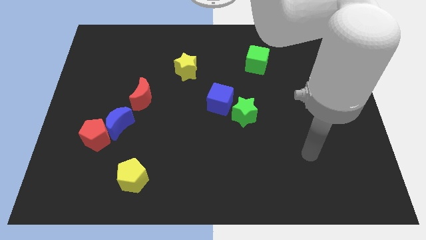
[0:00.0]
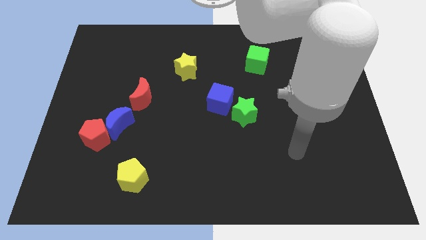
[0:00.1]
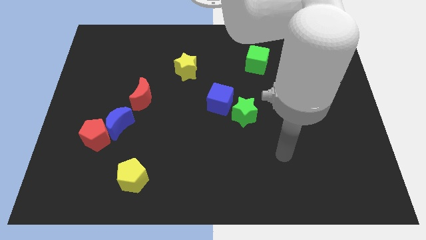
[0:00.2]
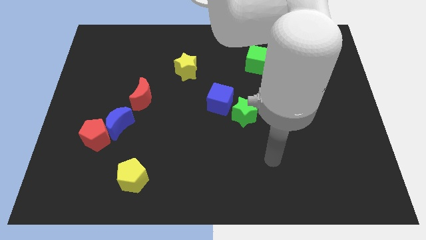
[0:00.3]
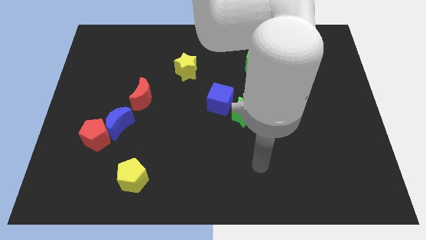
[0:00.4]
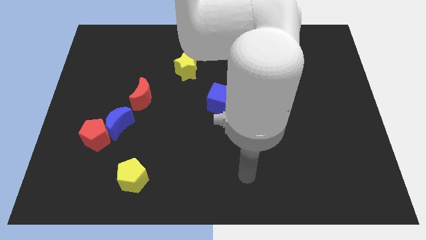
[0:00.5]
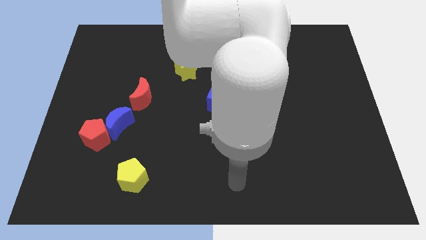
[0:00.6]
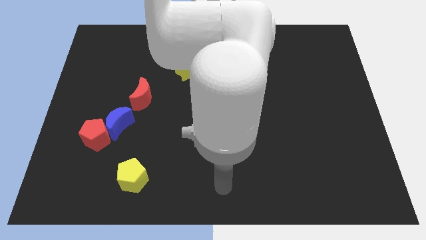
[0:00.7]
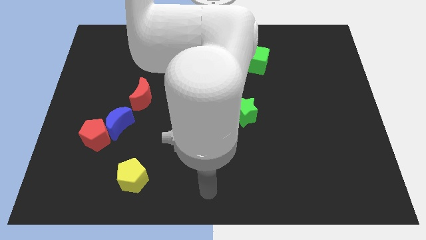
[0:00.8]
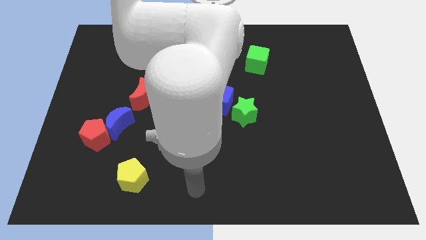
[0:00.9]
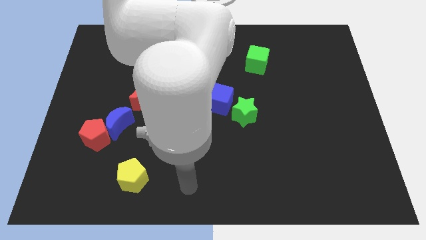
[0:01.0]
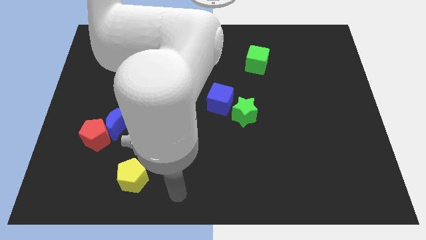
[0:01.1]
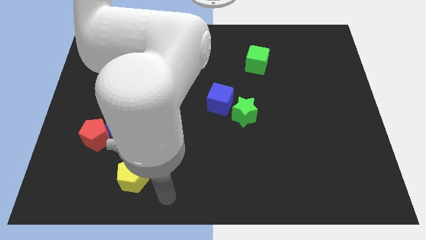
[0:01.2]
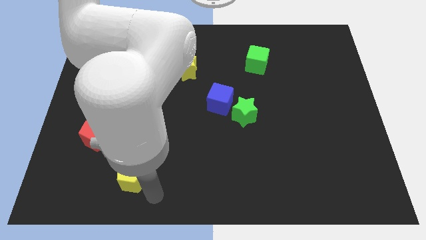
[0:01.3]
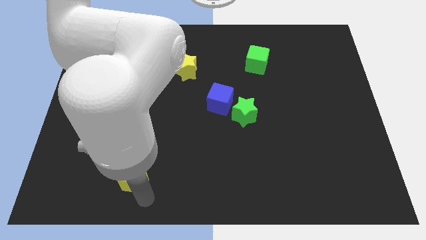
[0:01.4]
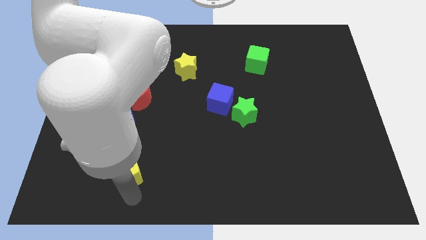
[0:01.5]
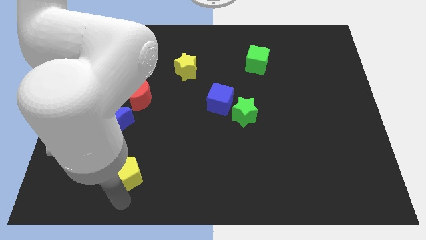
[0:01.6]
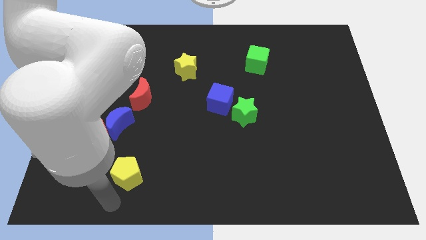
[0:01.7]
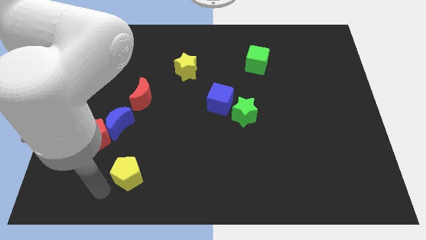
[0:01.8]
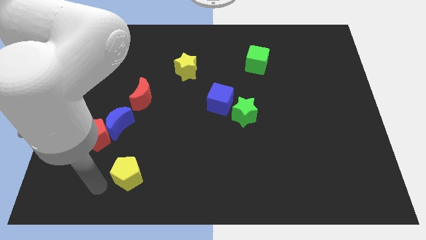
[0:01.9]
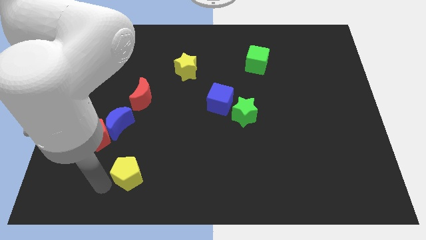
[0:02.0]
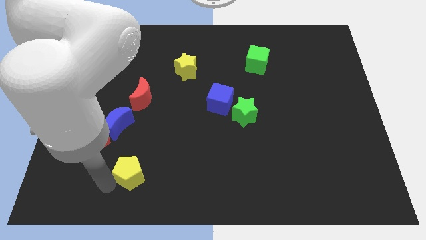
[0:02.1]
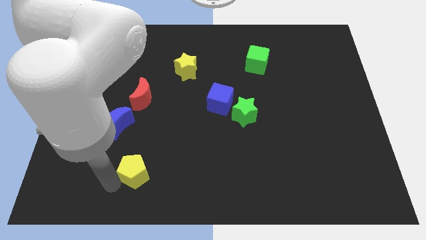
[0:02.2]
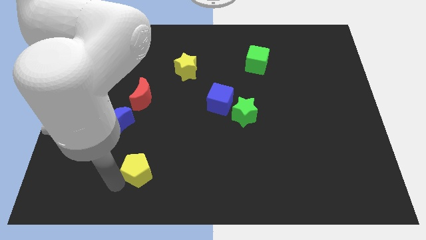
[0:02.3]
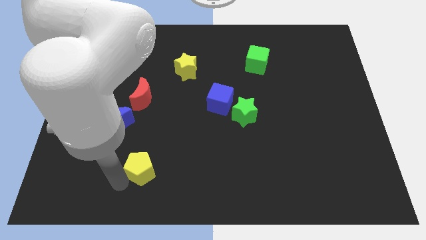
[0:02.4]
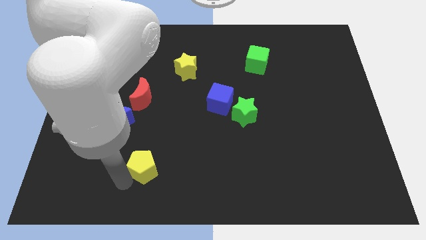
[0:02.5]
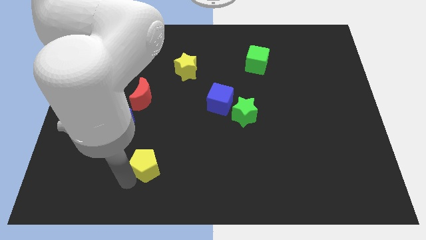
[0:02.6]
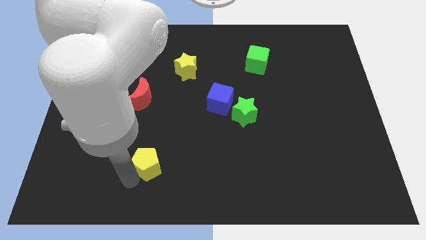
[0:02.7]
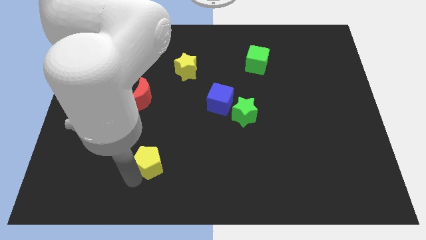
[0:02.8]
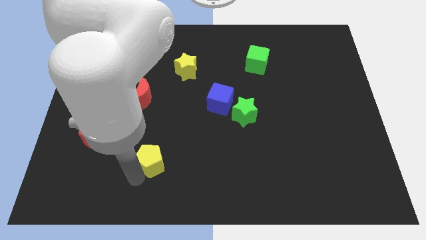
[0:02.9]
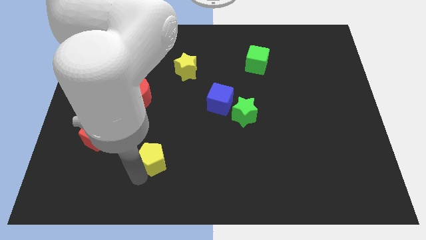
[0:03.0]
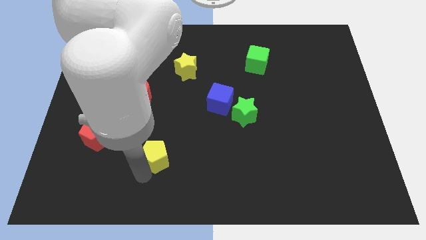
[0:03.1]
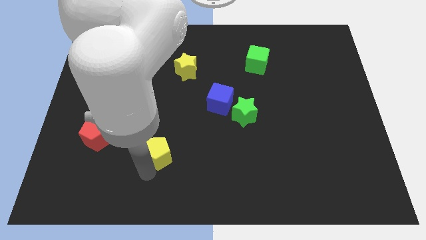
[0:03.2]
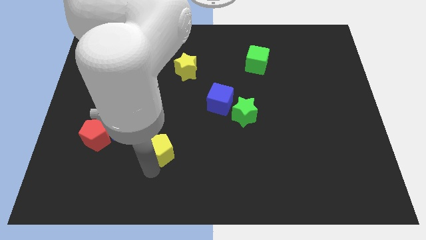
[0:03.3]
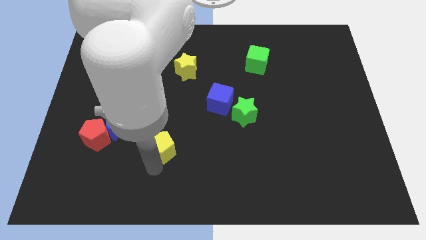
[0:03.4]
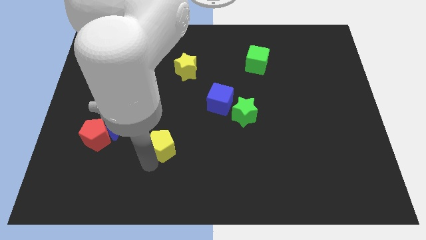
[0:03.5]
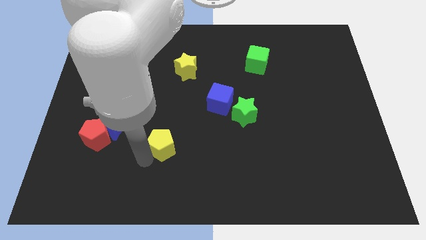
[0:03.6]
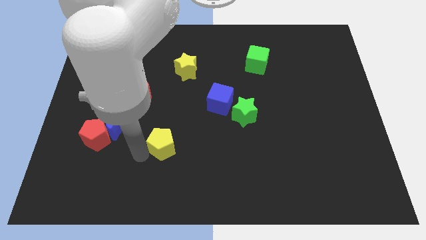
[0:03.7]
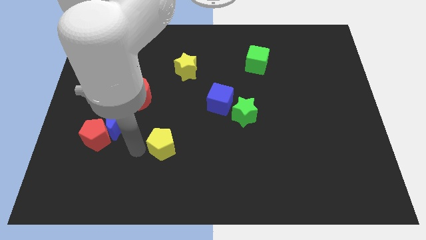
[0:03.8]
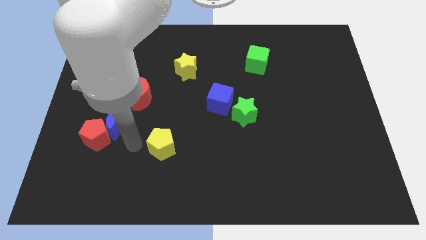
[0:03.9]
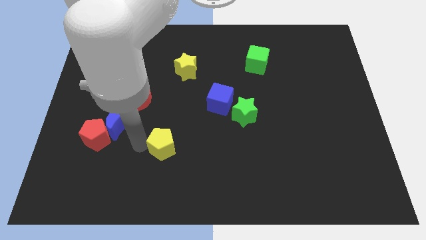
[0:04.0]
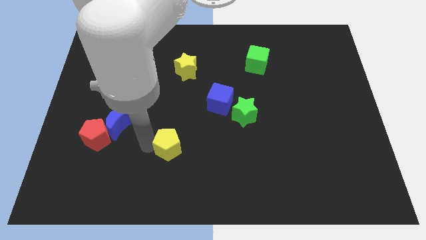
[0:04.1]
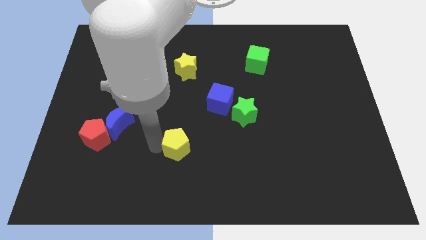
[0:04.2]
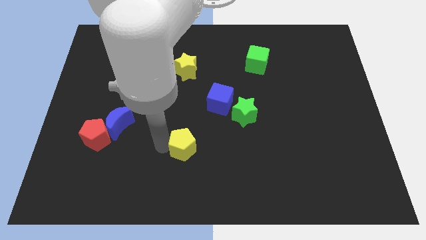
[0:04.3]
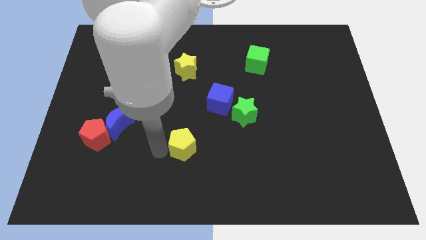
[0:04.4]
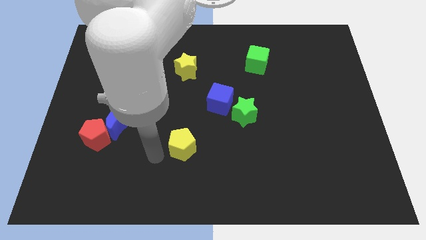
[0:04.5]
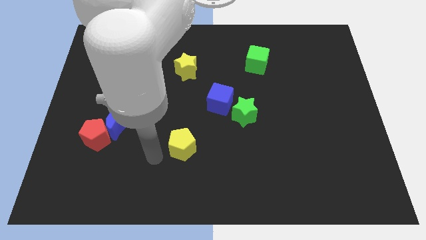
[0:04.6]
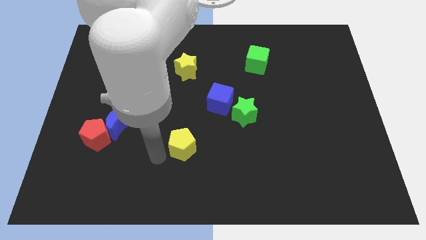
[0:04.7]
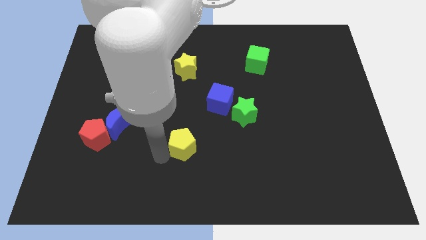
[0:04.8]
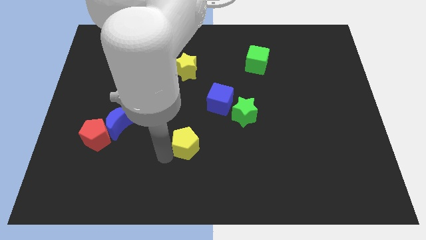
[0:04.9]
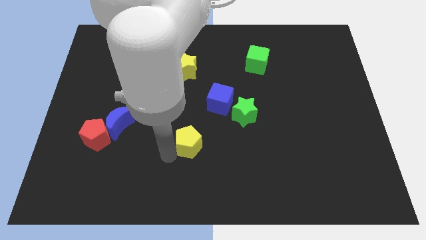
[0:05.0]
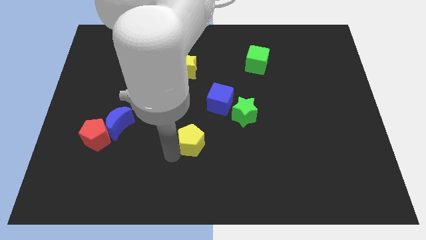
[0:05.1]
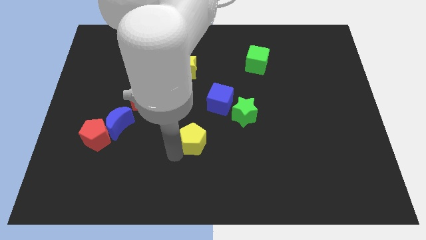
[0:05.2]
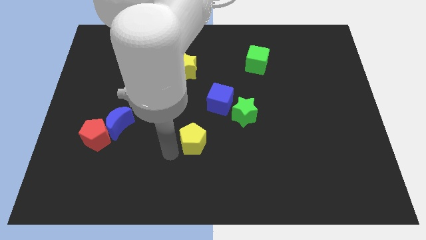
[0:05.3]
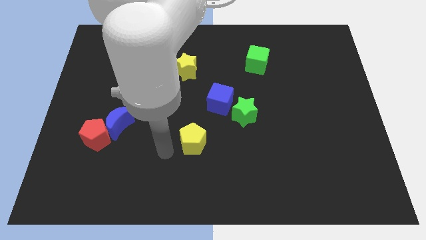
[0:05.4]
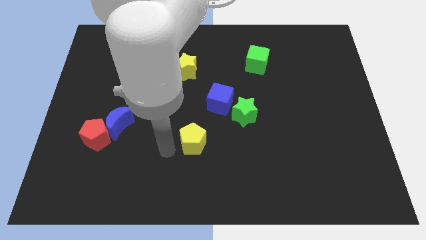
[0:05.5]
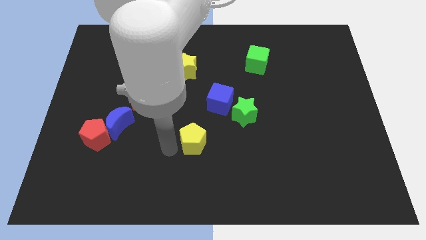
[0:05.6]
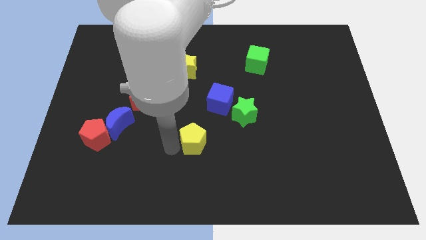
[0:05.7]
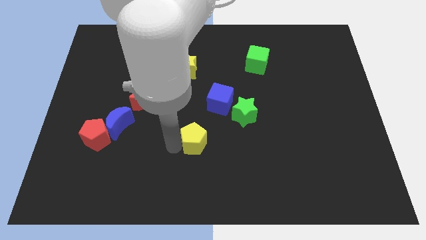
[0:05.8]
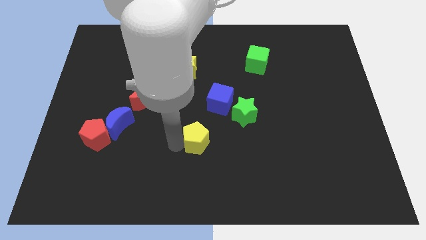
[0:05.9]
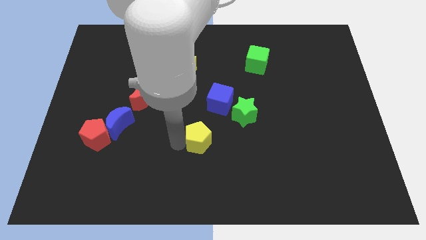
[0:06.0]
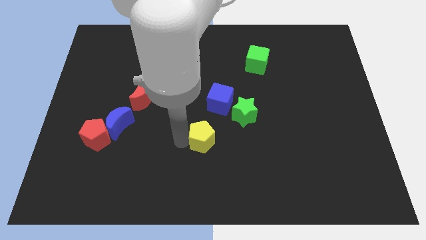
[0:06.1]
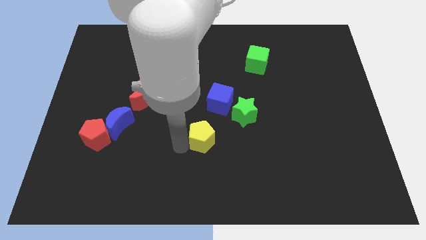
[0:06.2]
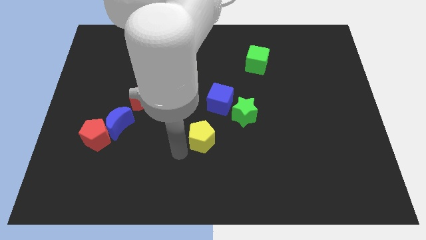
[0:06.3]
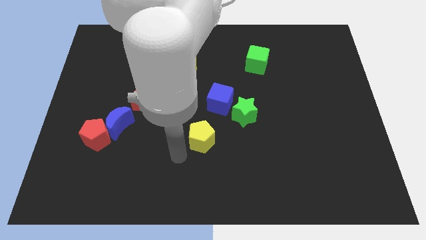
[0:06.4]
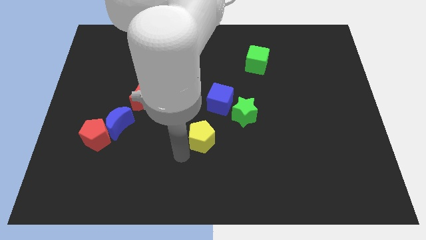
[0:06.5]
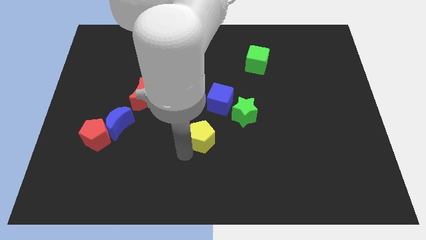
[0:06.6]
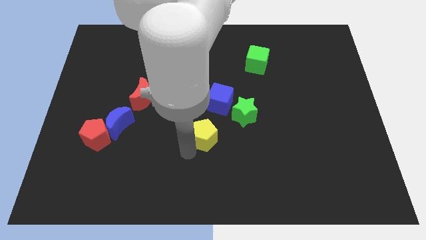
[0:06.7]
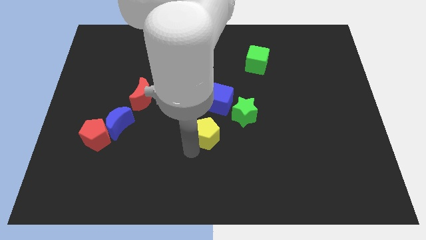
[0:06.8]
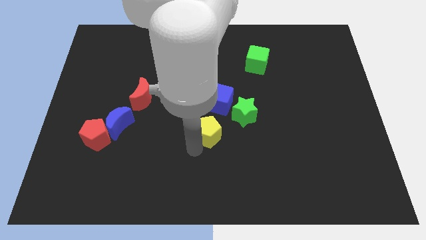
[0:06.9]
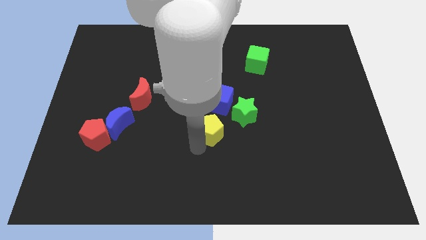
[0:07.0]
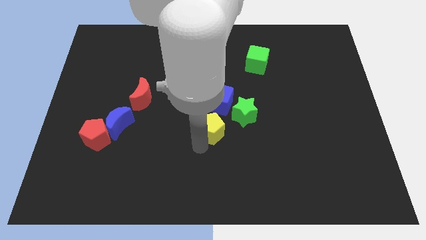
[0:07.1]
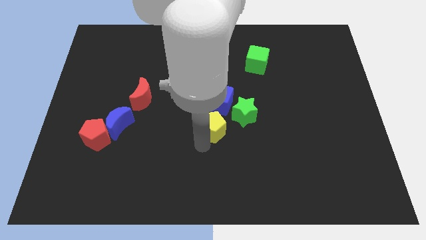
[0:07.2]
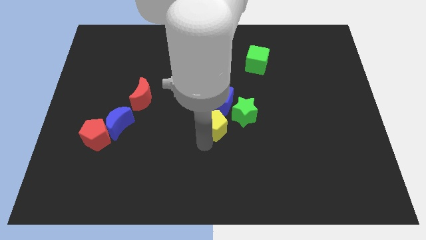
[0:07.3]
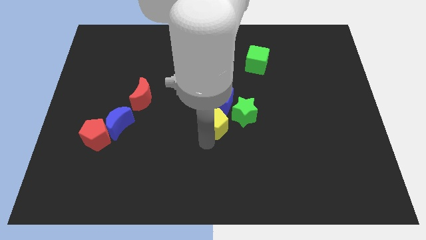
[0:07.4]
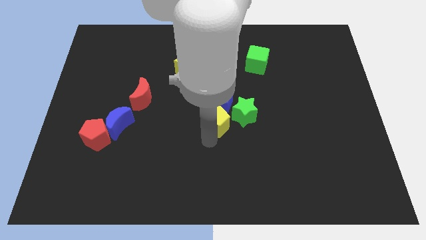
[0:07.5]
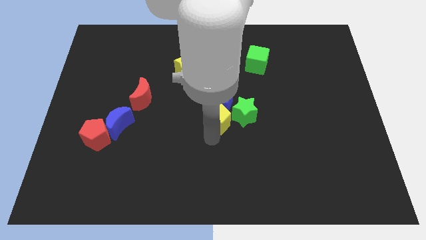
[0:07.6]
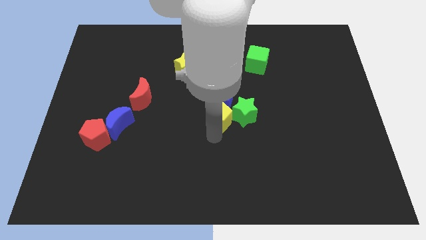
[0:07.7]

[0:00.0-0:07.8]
slide the yellow pentagon towards the green star
